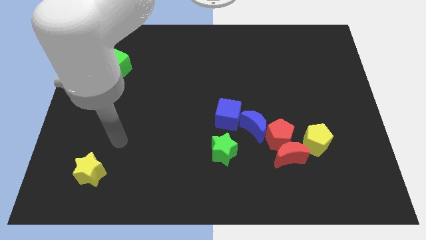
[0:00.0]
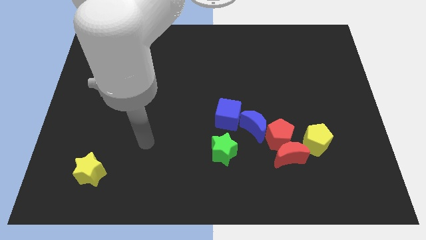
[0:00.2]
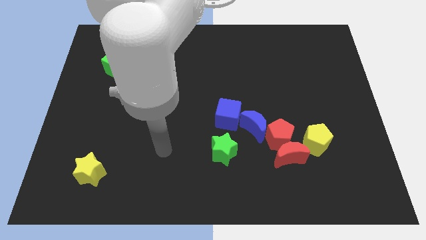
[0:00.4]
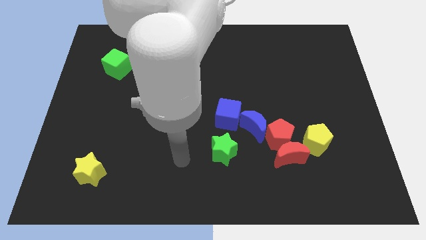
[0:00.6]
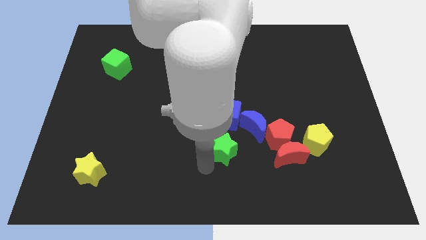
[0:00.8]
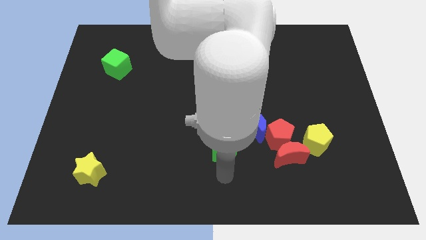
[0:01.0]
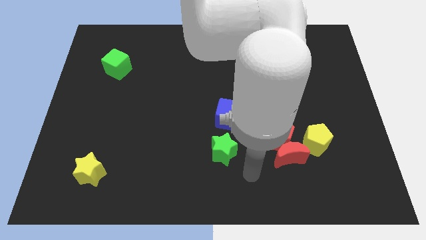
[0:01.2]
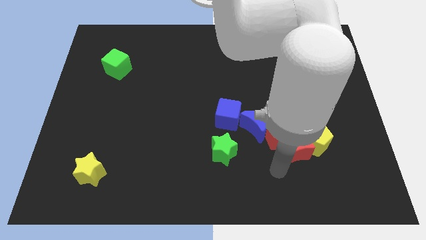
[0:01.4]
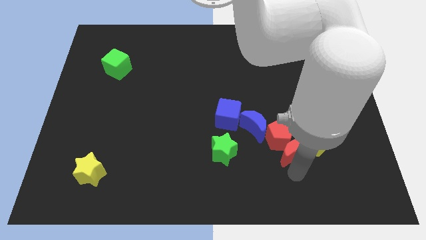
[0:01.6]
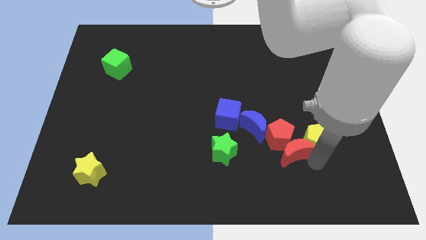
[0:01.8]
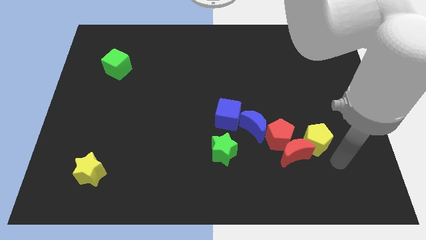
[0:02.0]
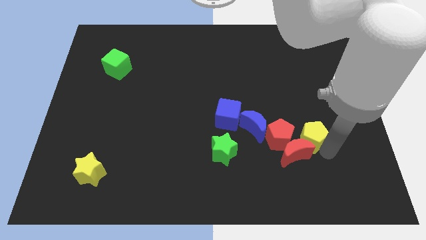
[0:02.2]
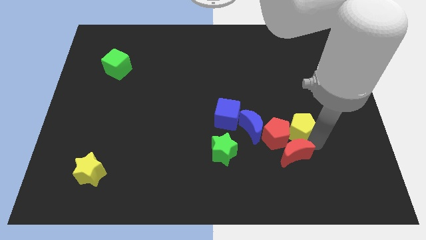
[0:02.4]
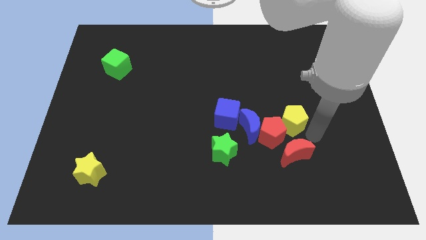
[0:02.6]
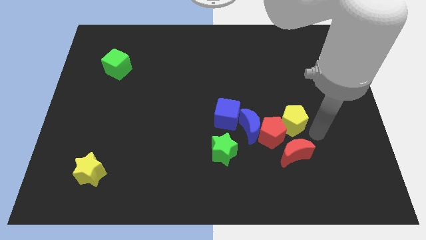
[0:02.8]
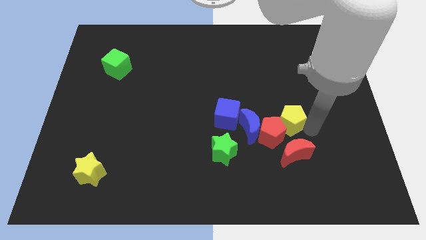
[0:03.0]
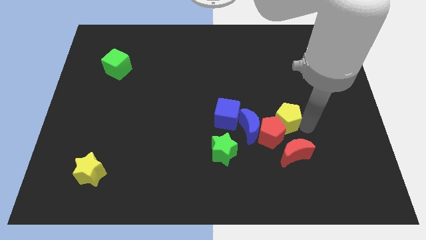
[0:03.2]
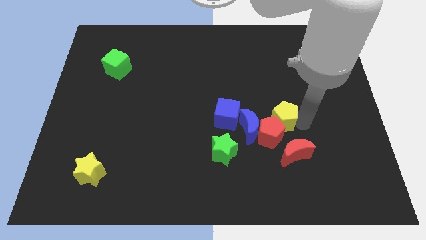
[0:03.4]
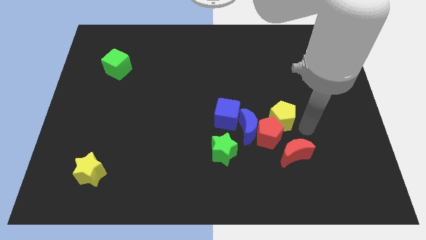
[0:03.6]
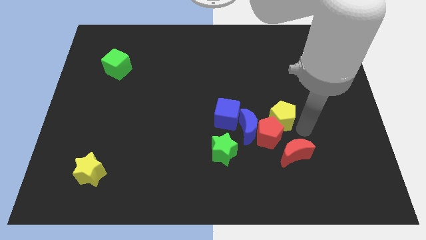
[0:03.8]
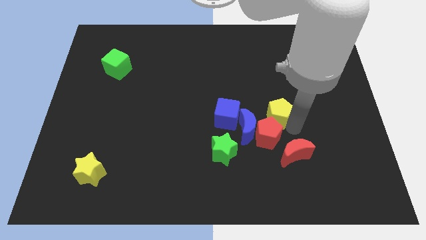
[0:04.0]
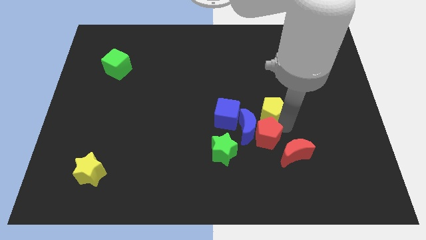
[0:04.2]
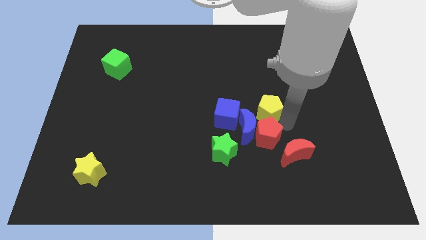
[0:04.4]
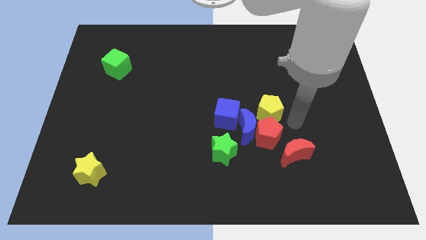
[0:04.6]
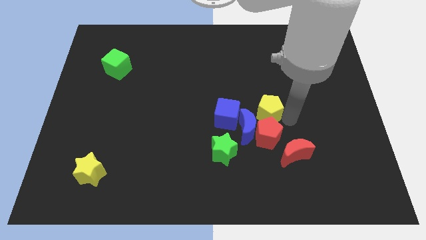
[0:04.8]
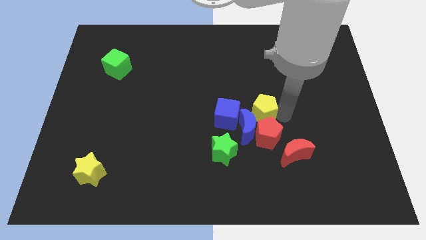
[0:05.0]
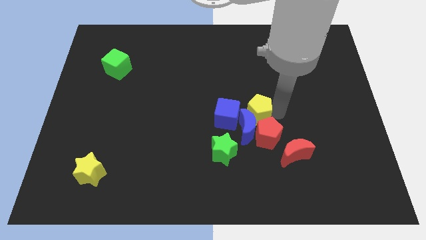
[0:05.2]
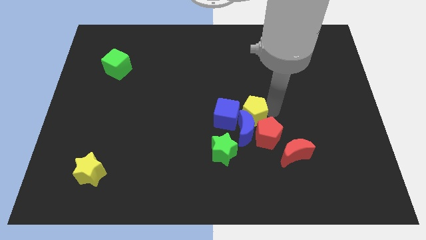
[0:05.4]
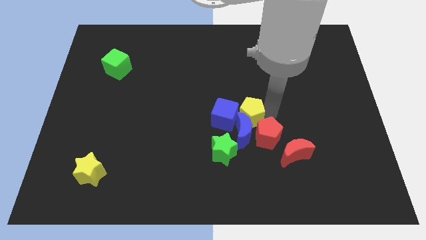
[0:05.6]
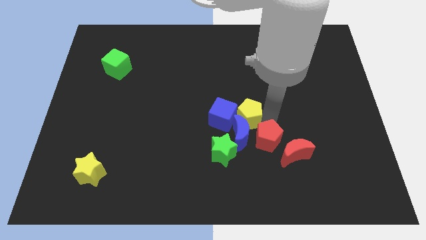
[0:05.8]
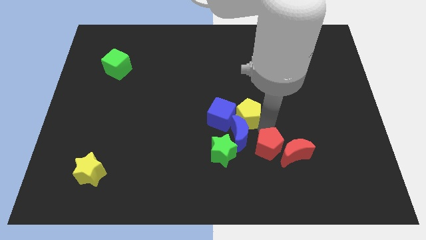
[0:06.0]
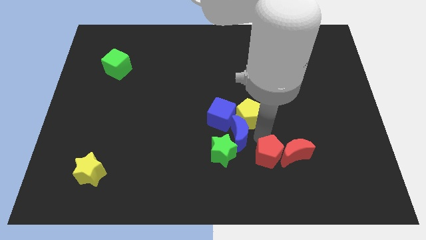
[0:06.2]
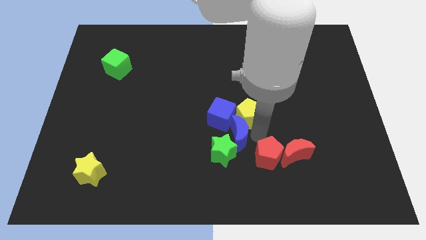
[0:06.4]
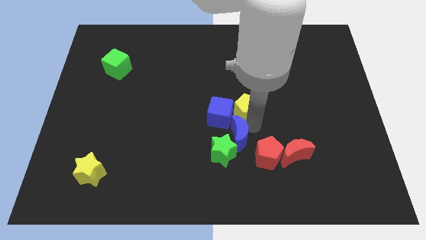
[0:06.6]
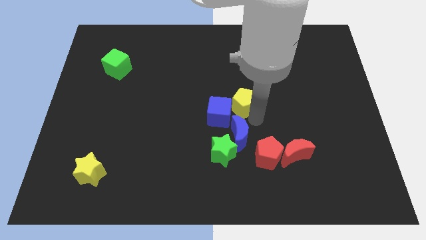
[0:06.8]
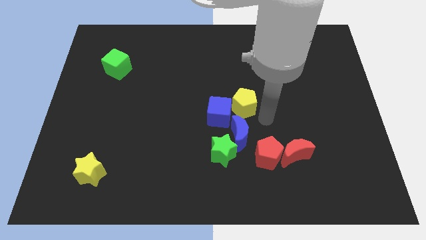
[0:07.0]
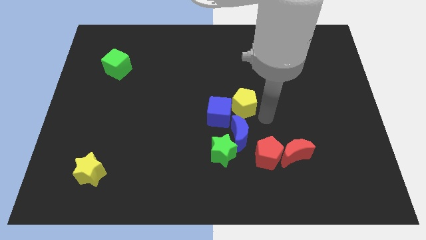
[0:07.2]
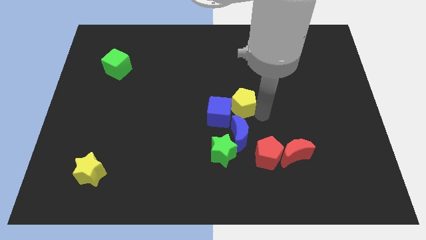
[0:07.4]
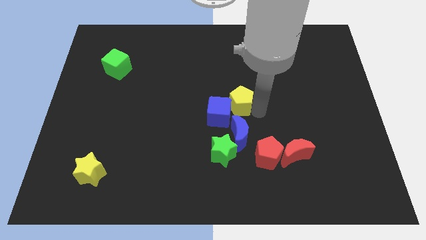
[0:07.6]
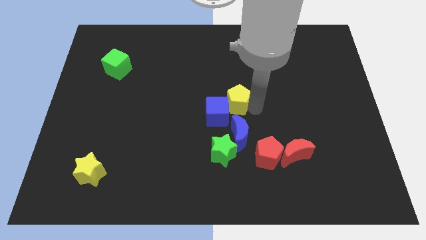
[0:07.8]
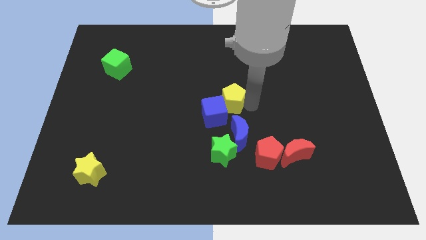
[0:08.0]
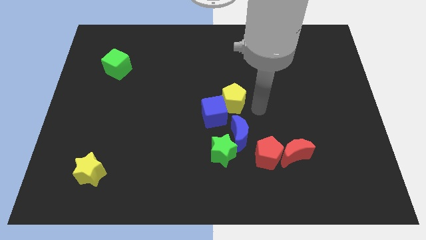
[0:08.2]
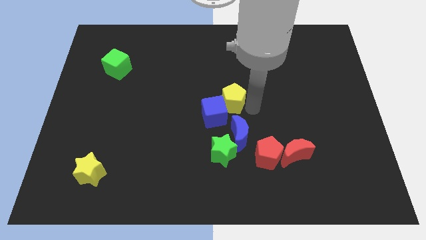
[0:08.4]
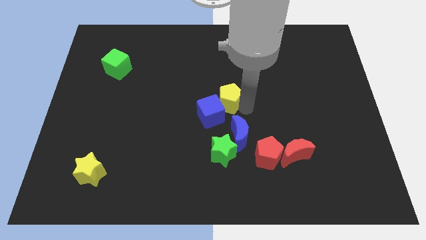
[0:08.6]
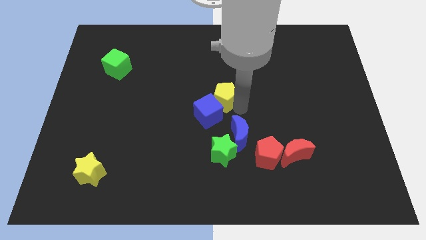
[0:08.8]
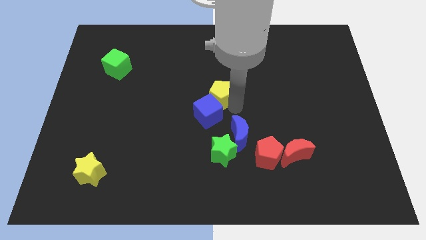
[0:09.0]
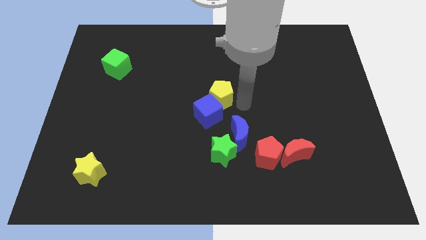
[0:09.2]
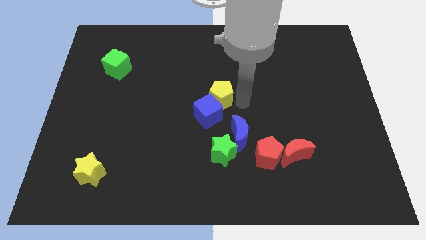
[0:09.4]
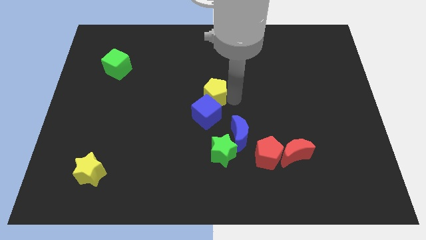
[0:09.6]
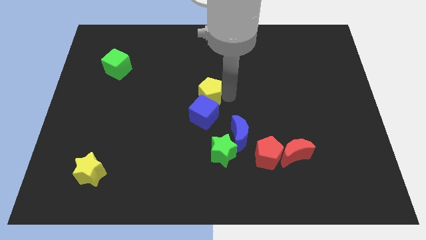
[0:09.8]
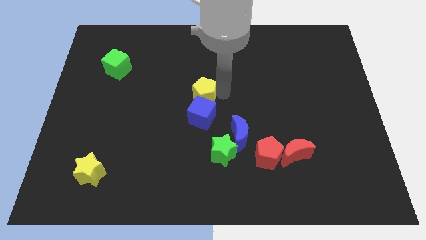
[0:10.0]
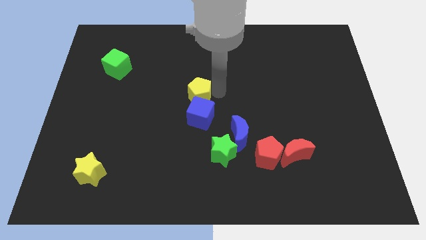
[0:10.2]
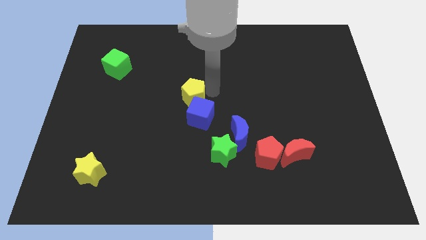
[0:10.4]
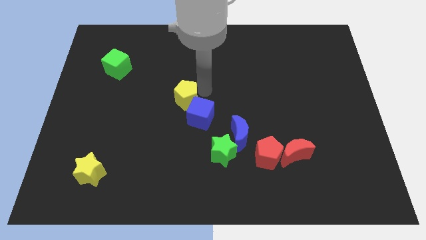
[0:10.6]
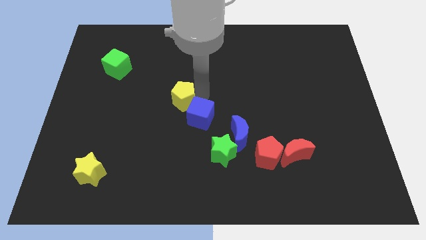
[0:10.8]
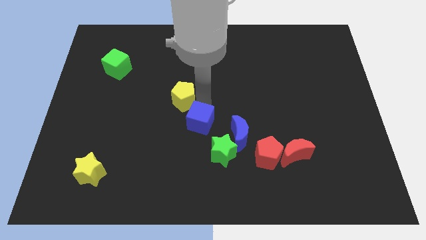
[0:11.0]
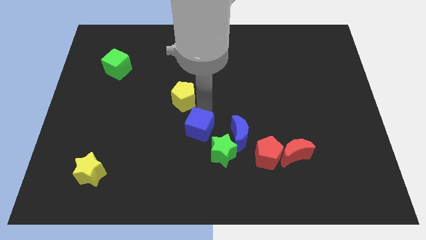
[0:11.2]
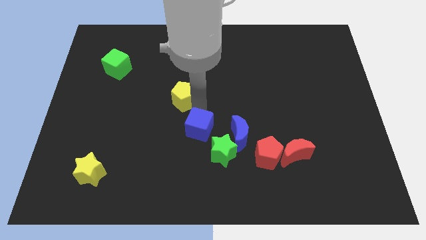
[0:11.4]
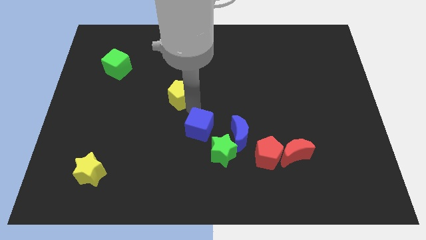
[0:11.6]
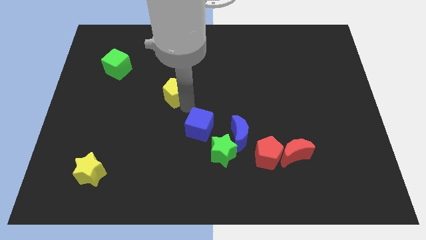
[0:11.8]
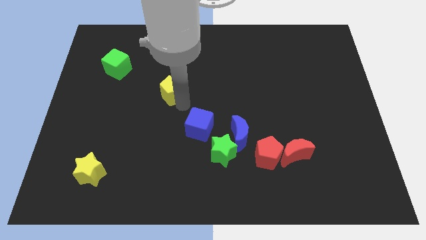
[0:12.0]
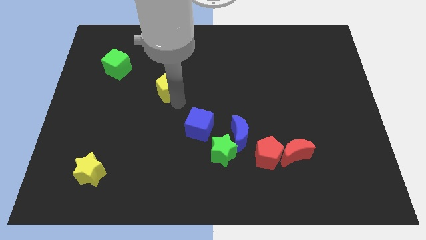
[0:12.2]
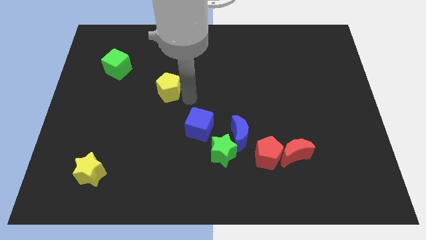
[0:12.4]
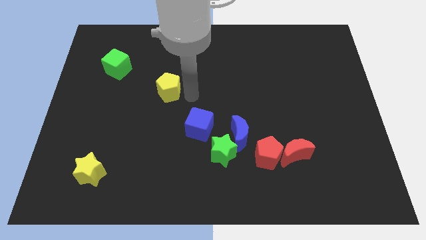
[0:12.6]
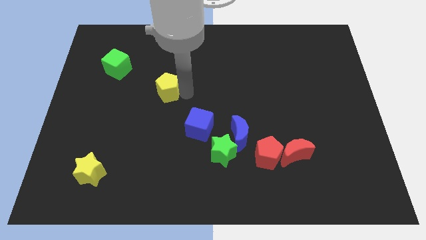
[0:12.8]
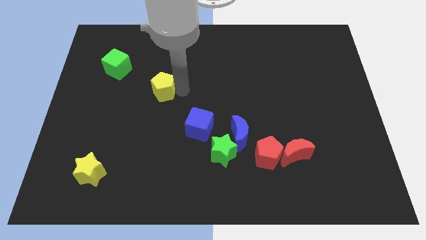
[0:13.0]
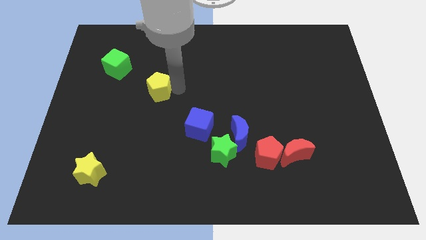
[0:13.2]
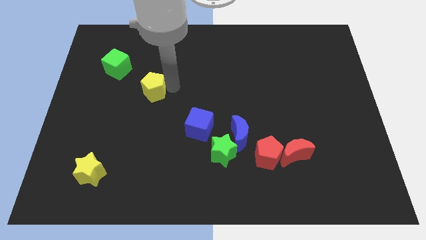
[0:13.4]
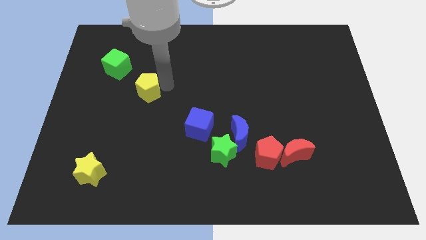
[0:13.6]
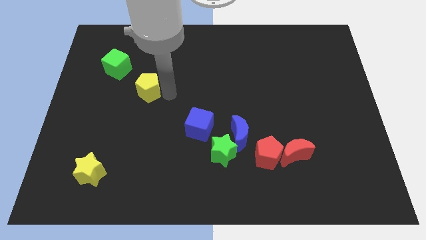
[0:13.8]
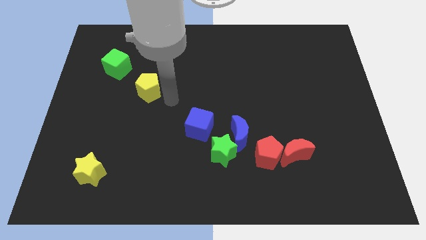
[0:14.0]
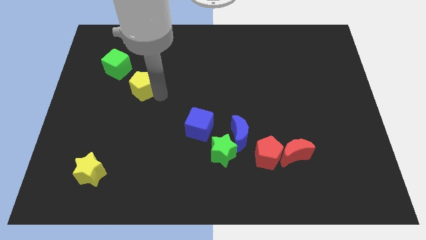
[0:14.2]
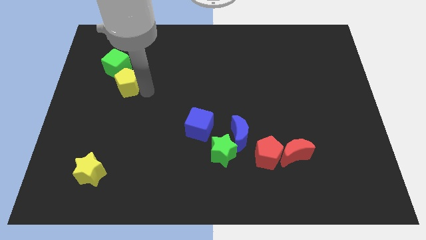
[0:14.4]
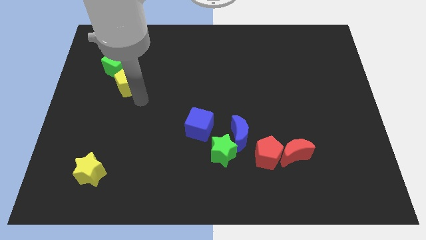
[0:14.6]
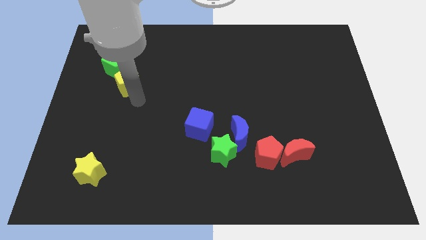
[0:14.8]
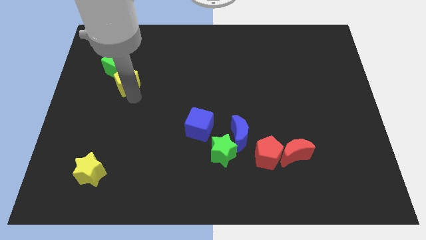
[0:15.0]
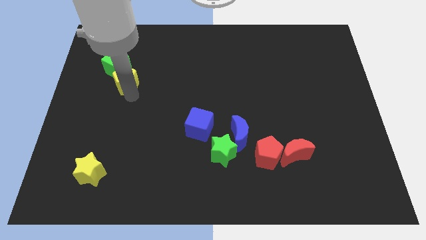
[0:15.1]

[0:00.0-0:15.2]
slide the yellow pentagon next to the green cube
